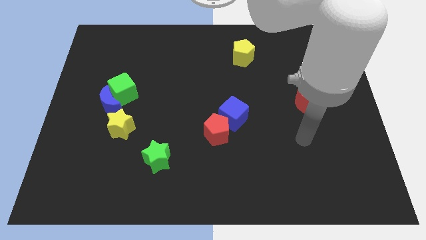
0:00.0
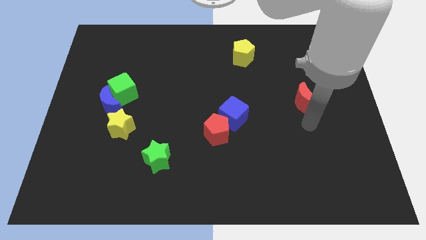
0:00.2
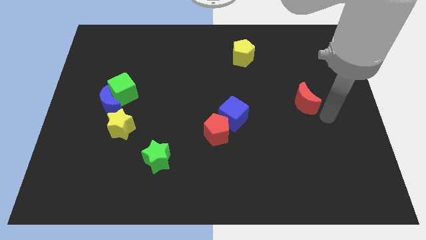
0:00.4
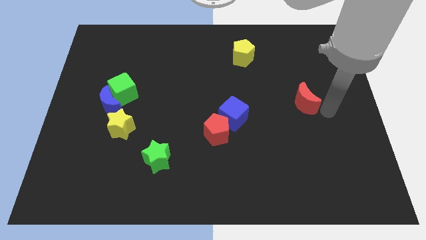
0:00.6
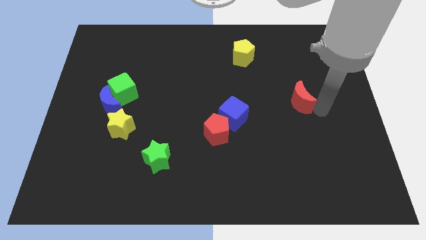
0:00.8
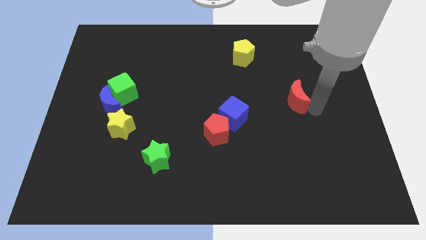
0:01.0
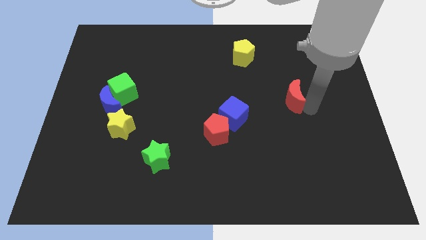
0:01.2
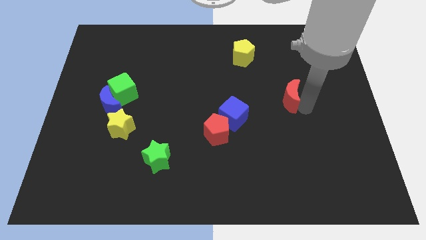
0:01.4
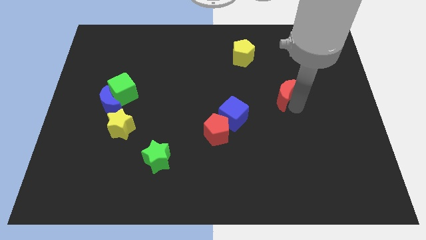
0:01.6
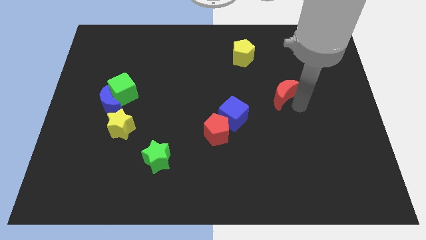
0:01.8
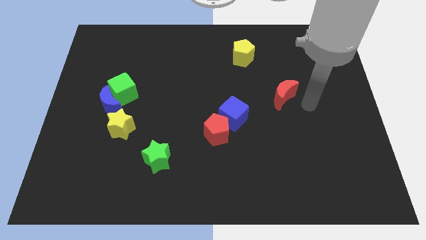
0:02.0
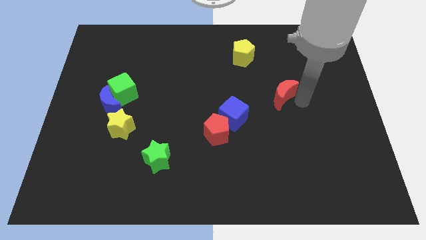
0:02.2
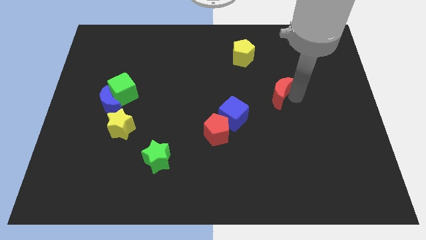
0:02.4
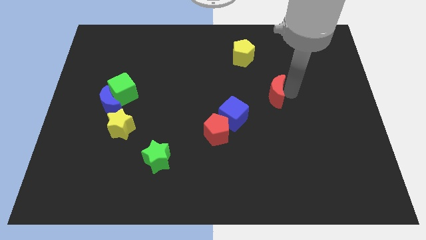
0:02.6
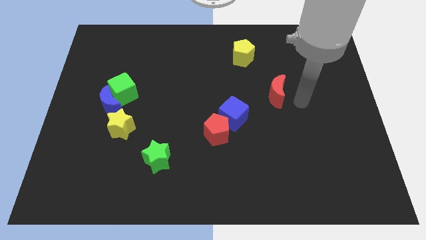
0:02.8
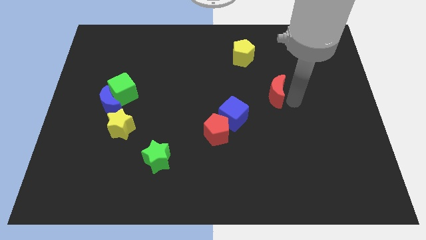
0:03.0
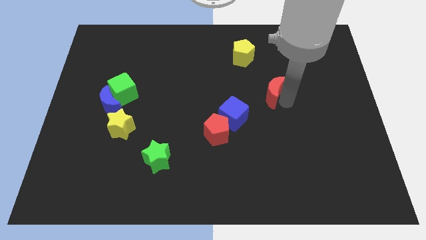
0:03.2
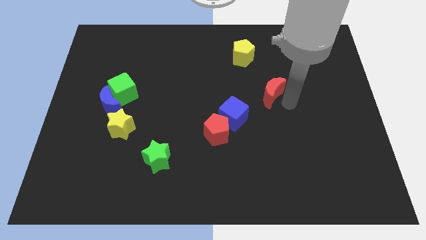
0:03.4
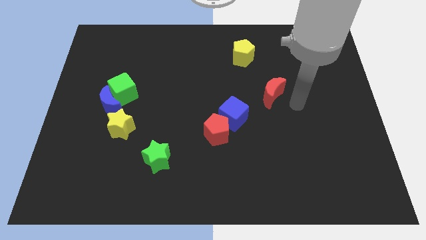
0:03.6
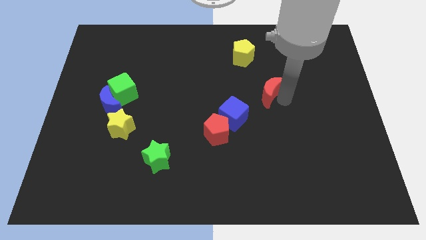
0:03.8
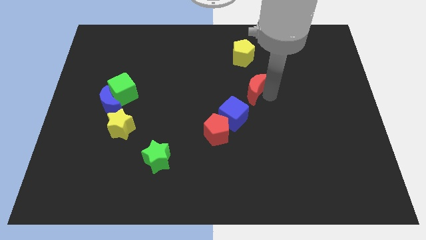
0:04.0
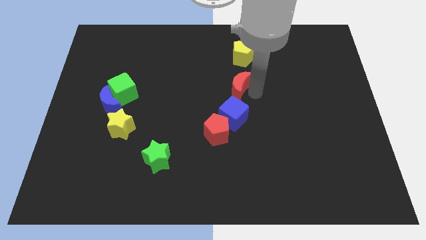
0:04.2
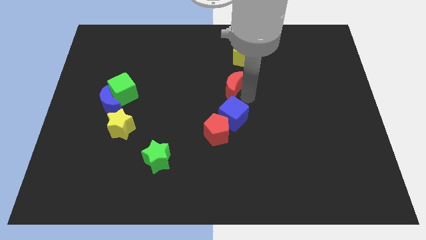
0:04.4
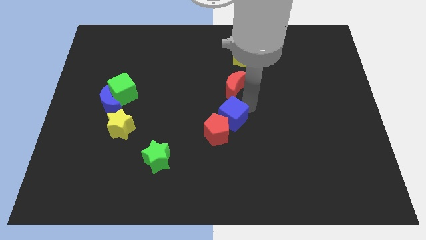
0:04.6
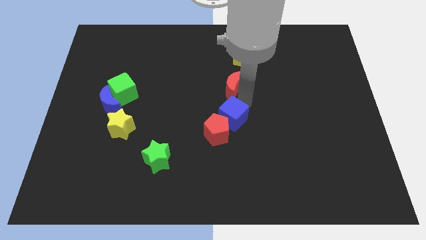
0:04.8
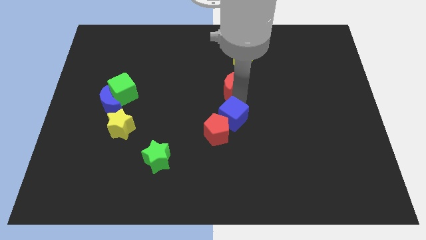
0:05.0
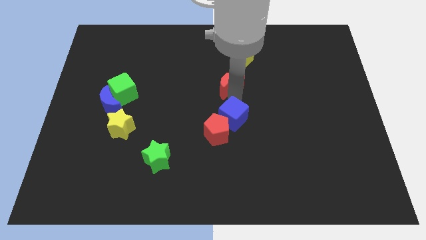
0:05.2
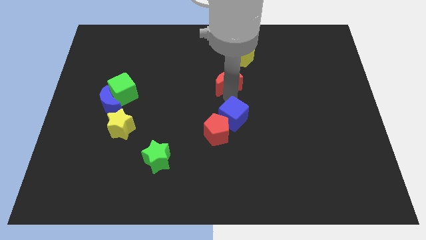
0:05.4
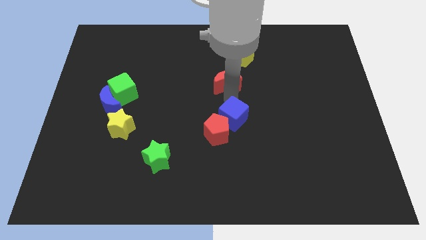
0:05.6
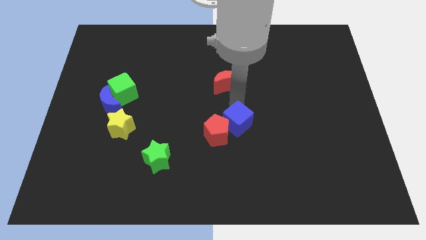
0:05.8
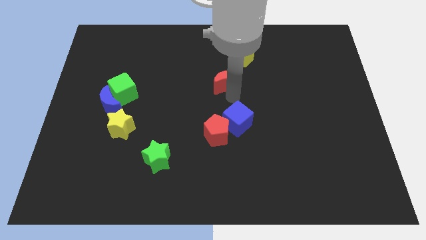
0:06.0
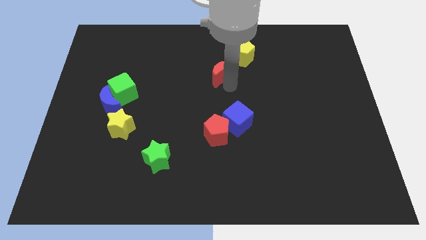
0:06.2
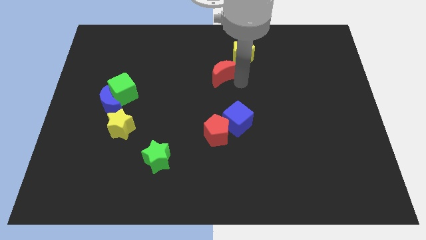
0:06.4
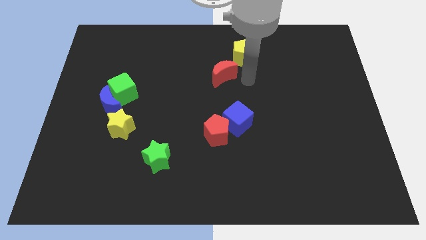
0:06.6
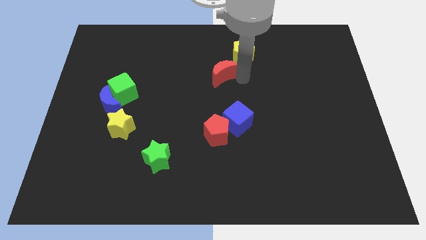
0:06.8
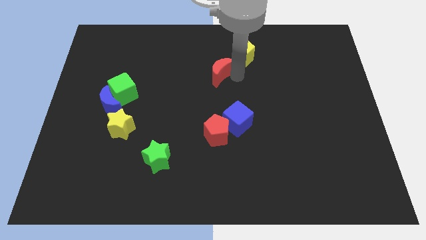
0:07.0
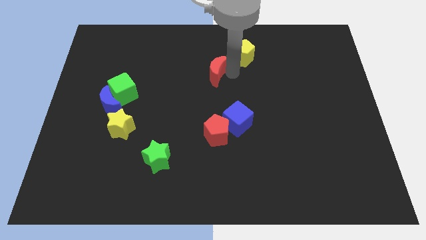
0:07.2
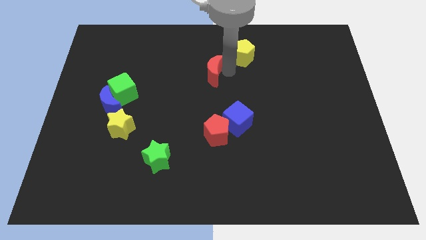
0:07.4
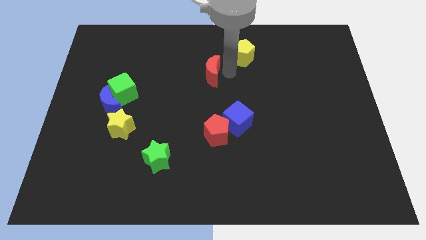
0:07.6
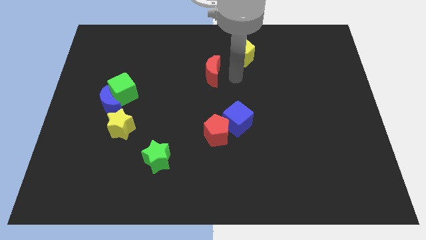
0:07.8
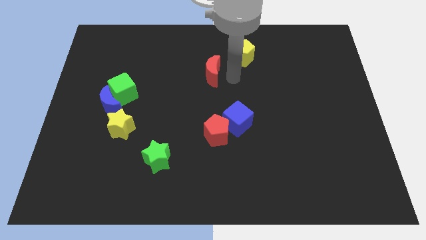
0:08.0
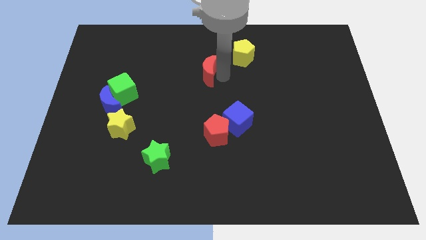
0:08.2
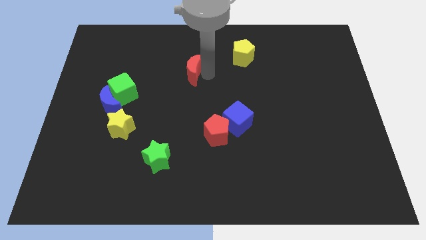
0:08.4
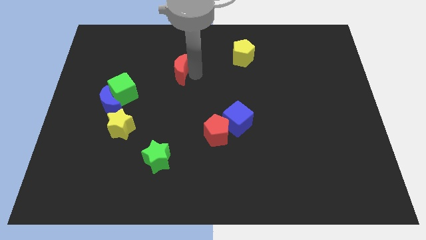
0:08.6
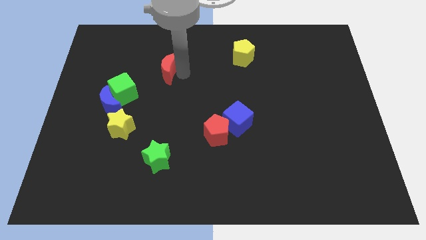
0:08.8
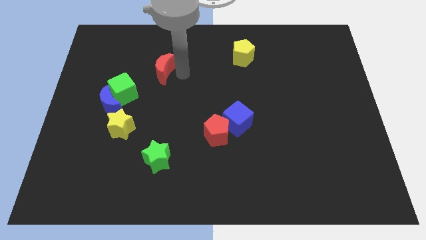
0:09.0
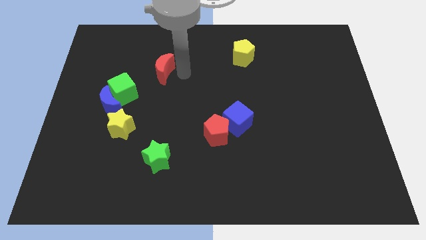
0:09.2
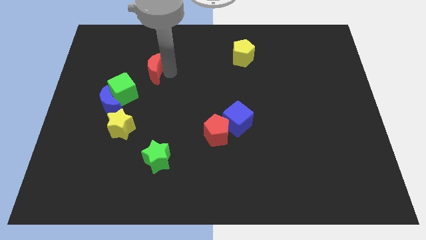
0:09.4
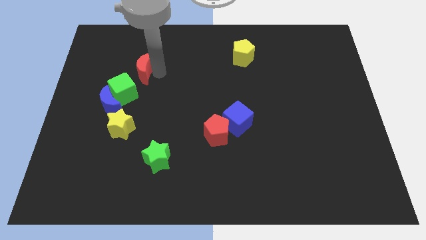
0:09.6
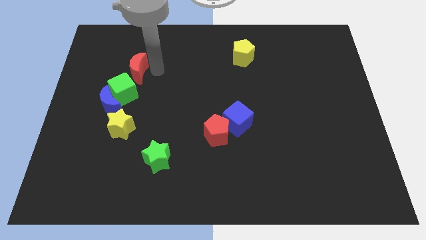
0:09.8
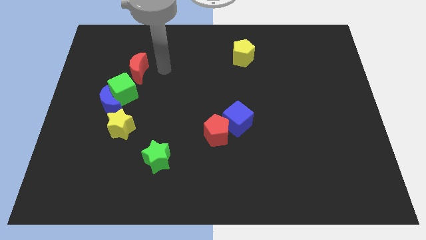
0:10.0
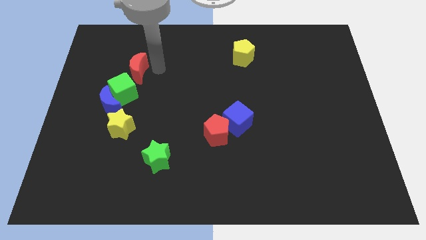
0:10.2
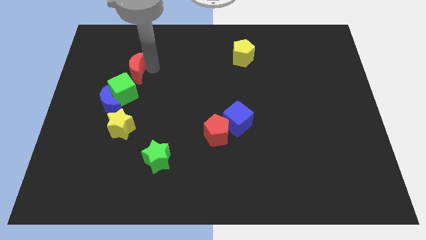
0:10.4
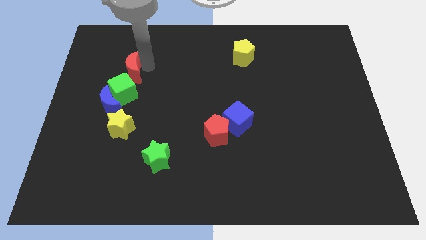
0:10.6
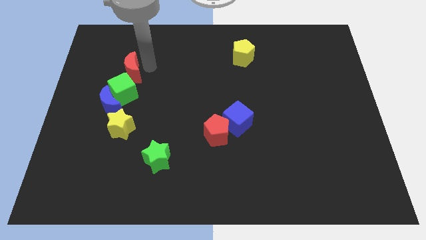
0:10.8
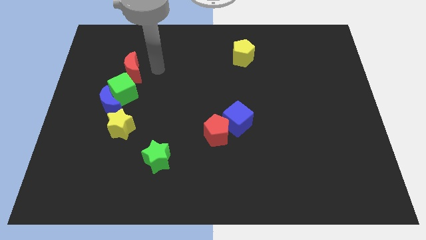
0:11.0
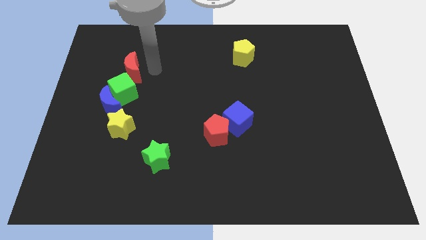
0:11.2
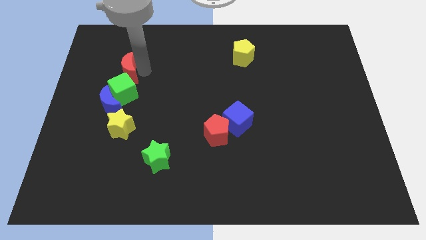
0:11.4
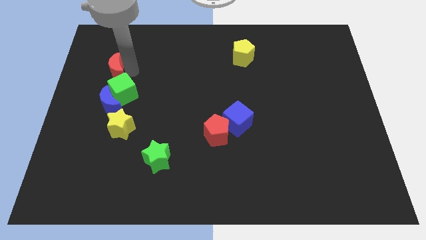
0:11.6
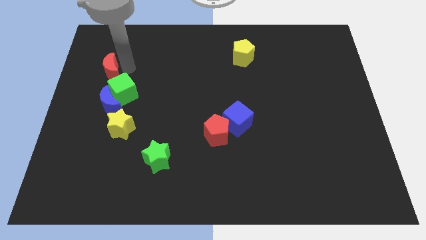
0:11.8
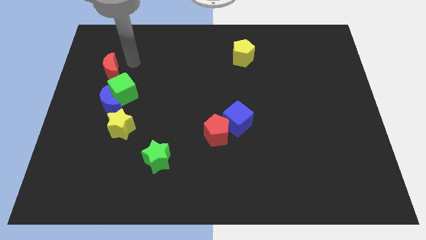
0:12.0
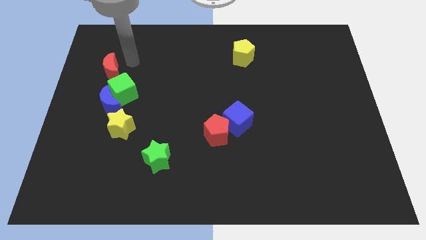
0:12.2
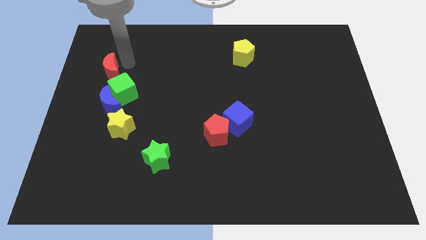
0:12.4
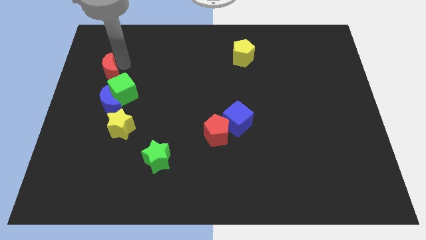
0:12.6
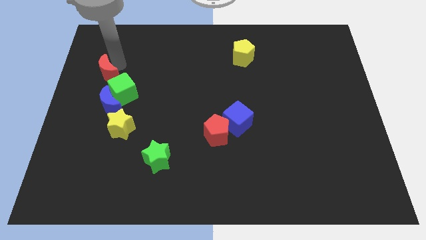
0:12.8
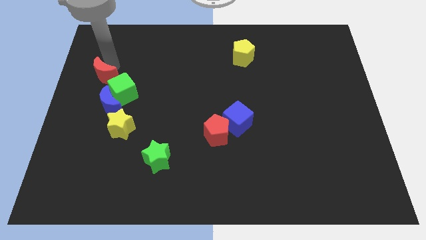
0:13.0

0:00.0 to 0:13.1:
push the red moon to the left side
